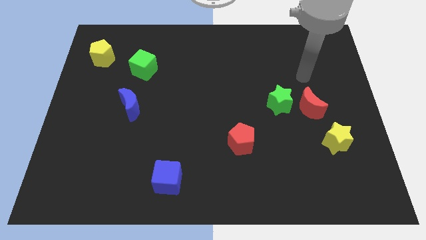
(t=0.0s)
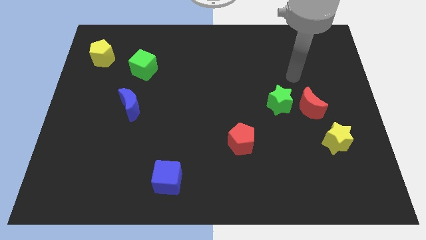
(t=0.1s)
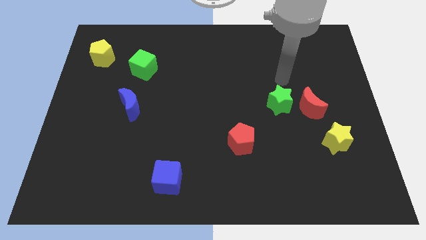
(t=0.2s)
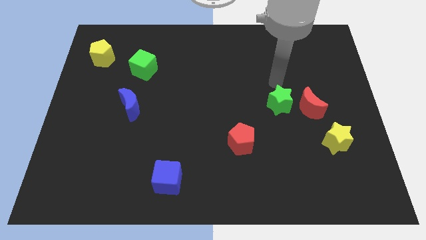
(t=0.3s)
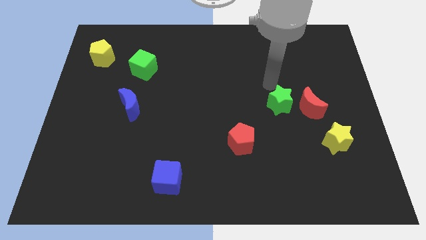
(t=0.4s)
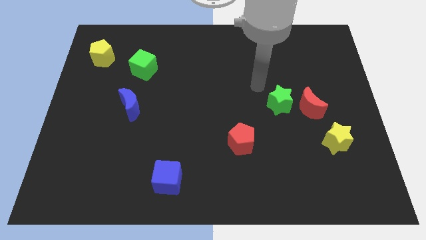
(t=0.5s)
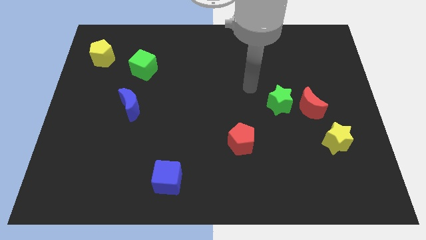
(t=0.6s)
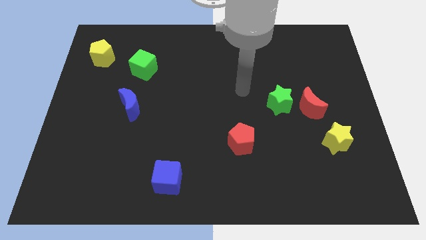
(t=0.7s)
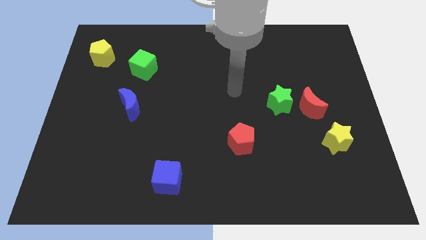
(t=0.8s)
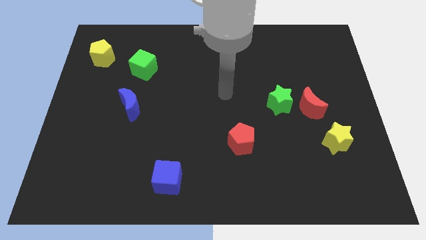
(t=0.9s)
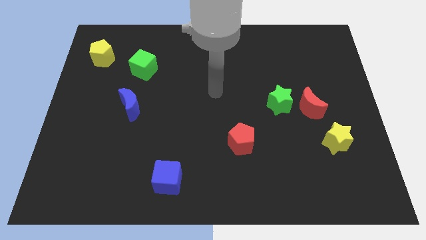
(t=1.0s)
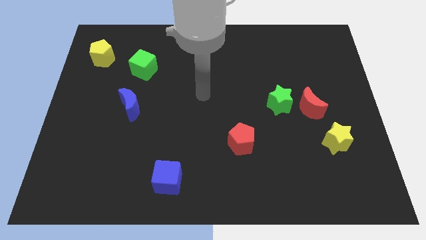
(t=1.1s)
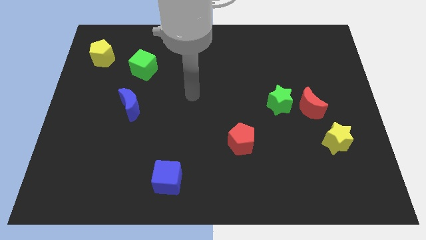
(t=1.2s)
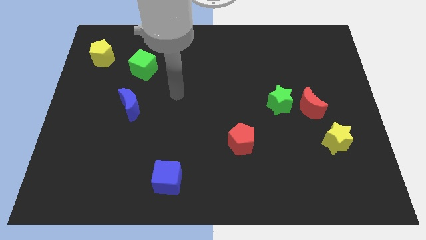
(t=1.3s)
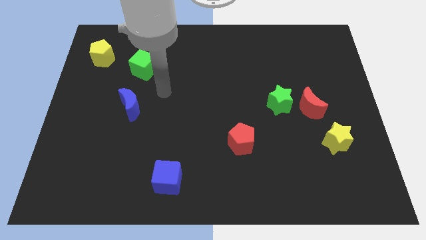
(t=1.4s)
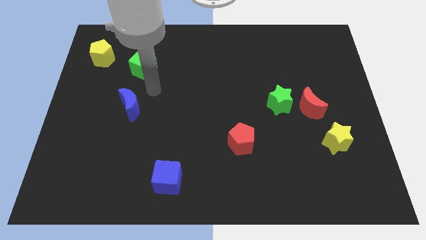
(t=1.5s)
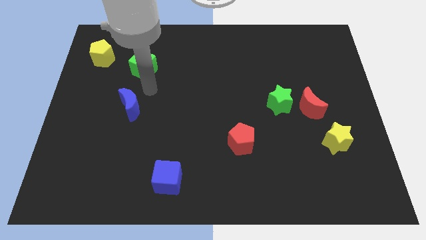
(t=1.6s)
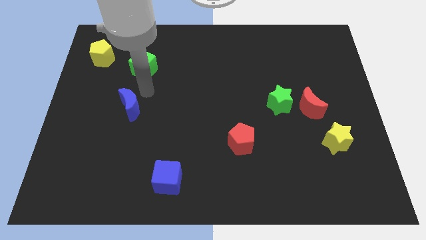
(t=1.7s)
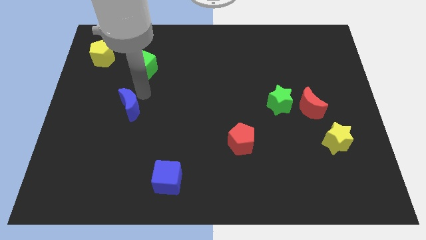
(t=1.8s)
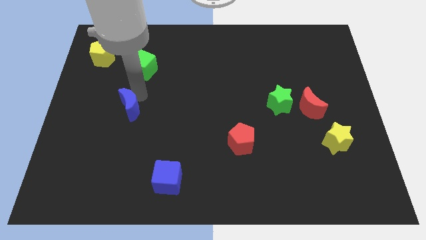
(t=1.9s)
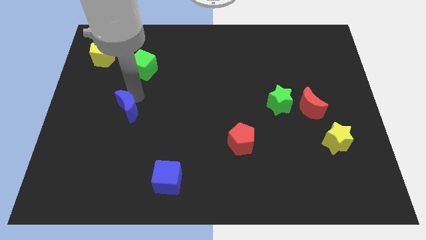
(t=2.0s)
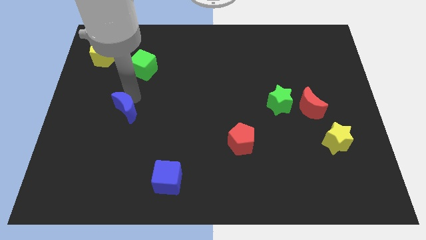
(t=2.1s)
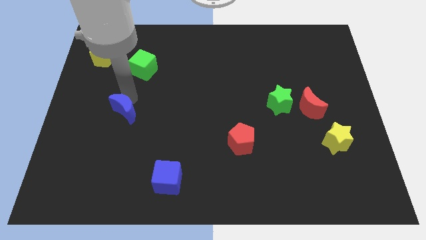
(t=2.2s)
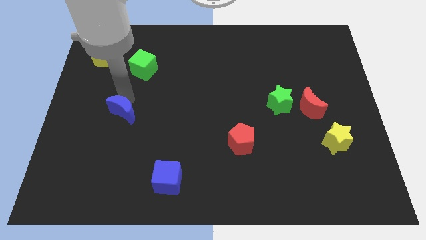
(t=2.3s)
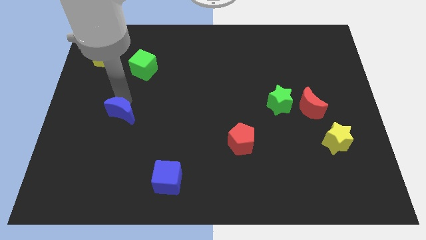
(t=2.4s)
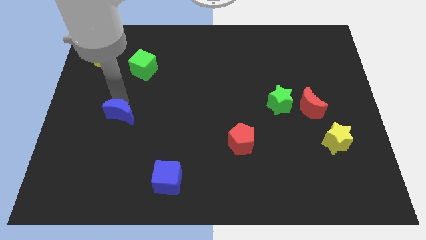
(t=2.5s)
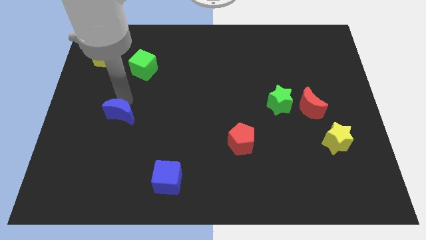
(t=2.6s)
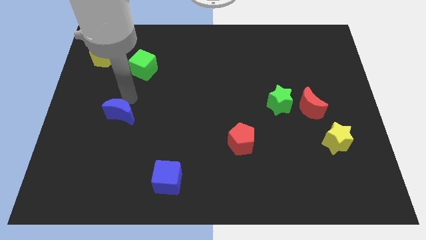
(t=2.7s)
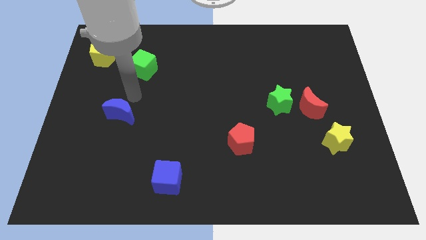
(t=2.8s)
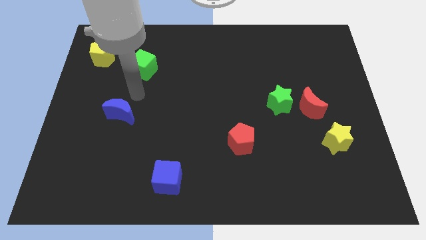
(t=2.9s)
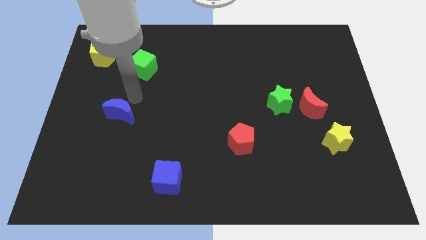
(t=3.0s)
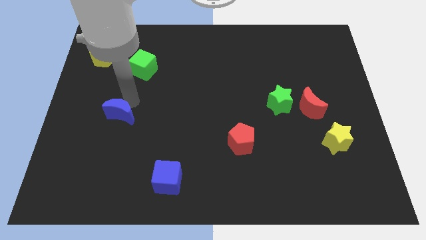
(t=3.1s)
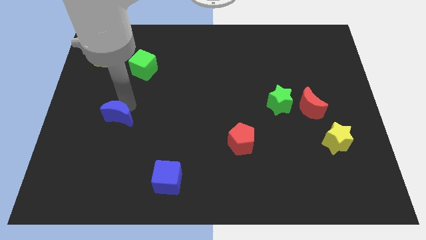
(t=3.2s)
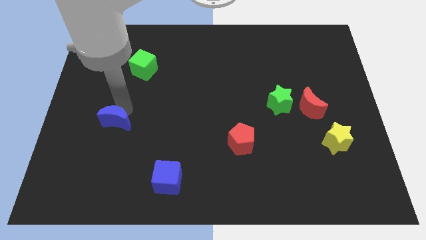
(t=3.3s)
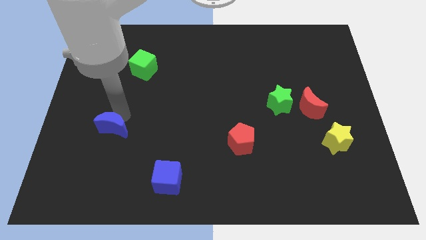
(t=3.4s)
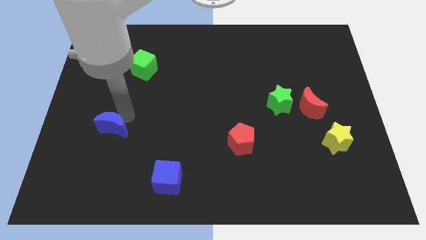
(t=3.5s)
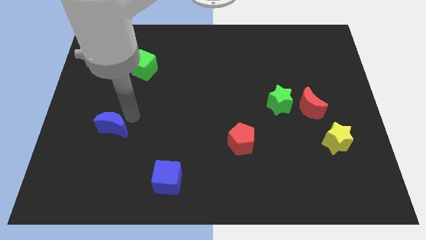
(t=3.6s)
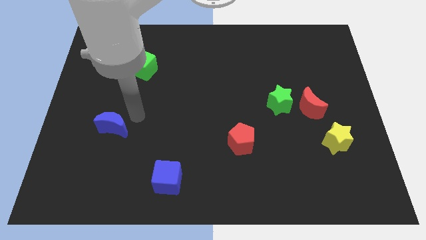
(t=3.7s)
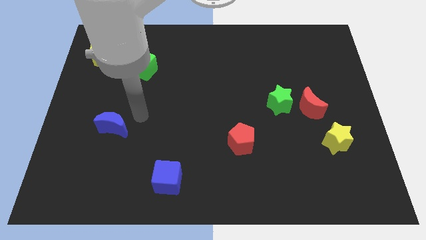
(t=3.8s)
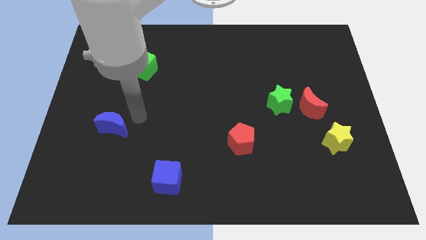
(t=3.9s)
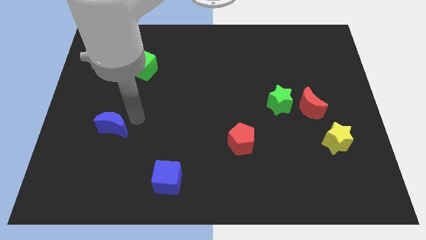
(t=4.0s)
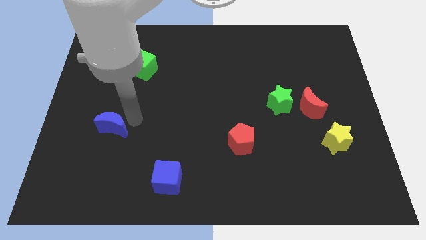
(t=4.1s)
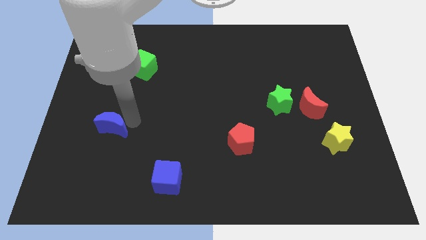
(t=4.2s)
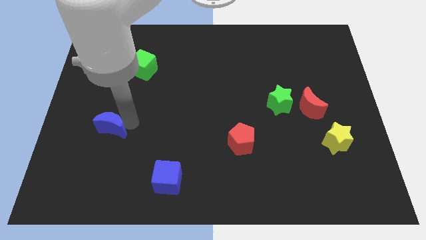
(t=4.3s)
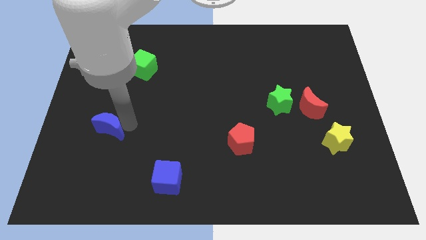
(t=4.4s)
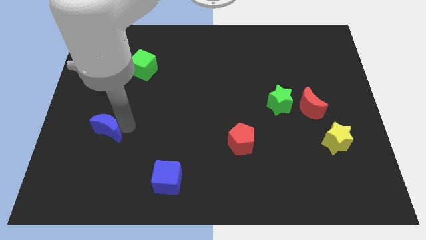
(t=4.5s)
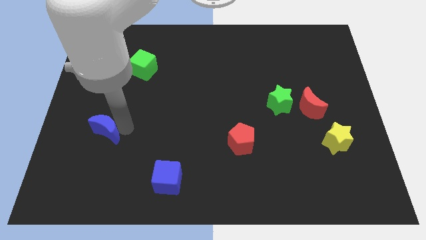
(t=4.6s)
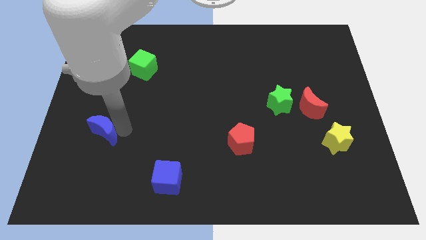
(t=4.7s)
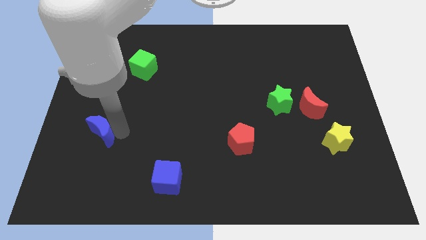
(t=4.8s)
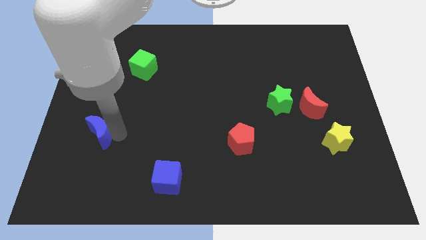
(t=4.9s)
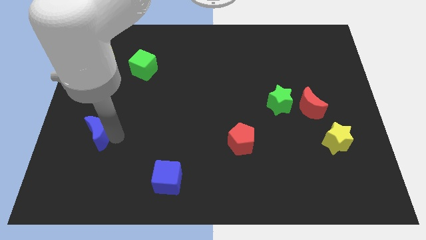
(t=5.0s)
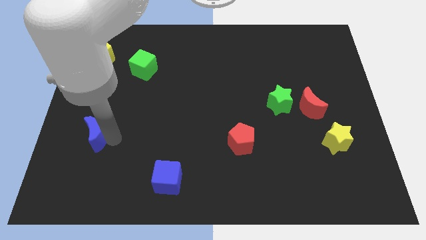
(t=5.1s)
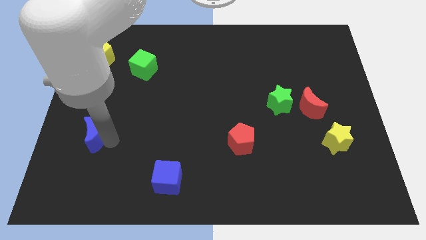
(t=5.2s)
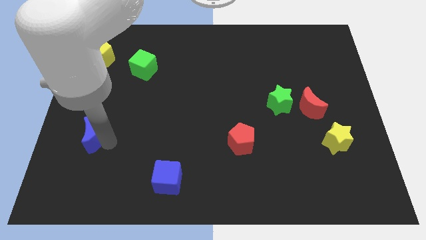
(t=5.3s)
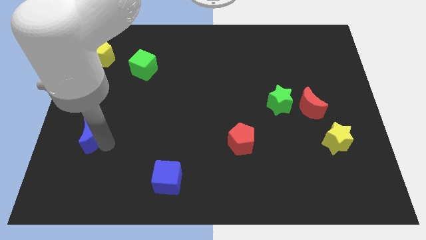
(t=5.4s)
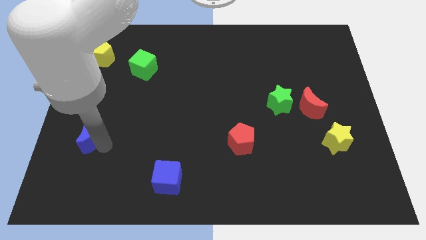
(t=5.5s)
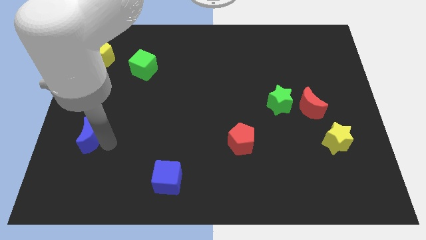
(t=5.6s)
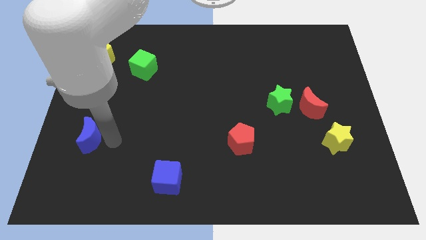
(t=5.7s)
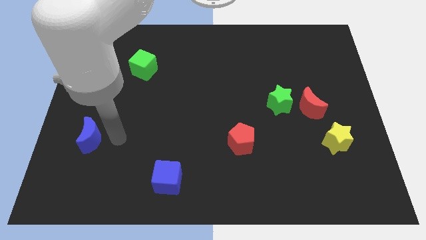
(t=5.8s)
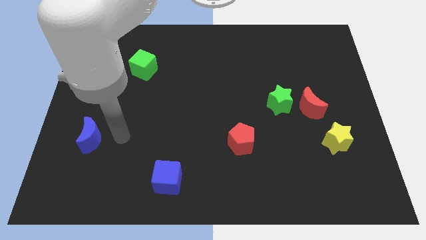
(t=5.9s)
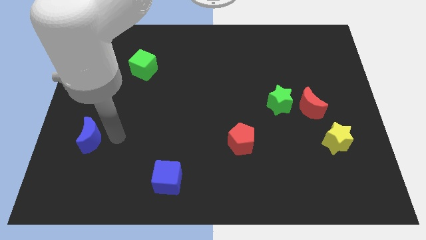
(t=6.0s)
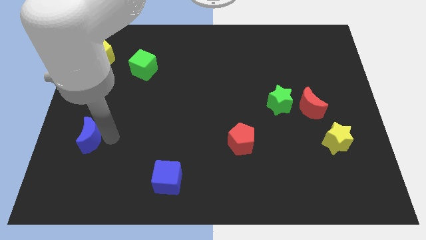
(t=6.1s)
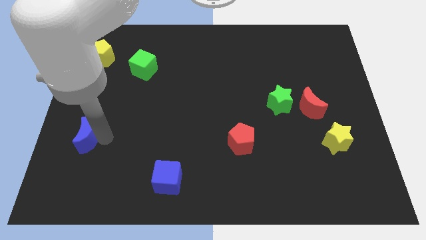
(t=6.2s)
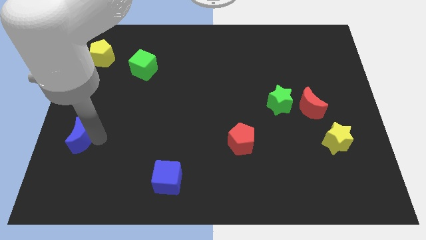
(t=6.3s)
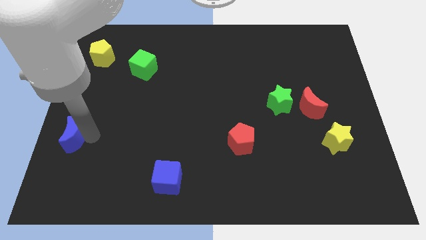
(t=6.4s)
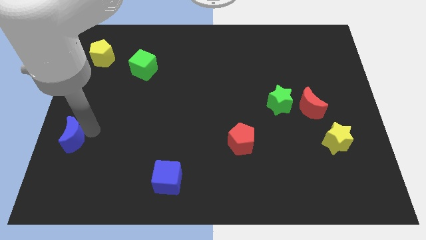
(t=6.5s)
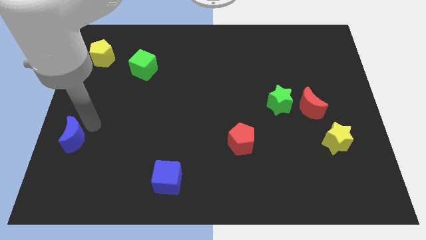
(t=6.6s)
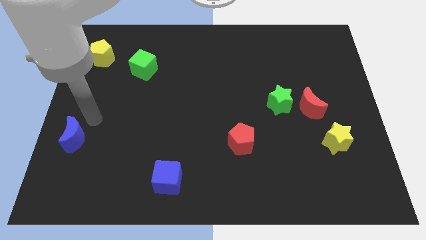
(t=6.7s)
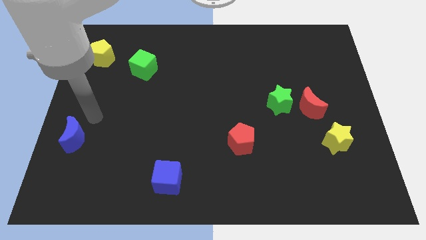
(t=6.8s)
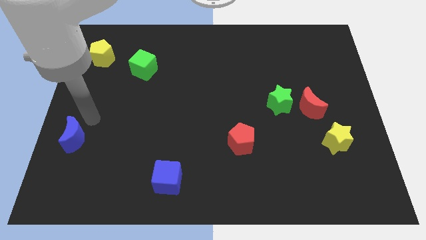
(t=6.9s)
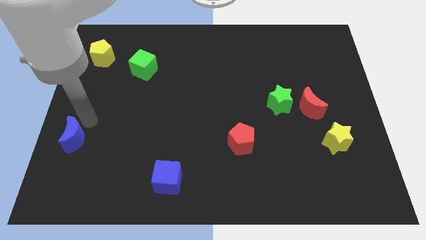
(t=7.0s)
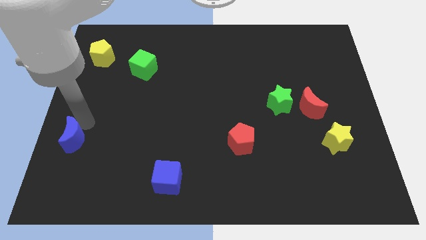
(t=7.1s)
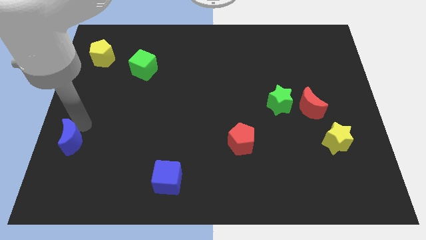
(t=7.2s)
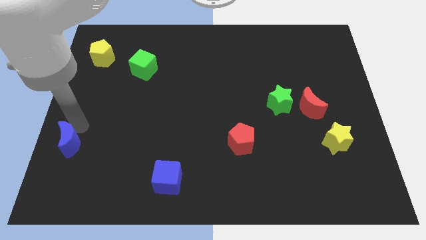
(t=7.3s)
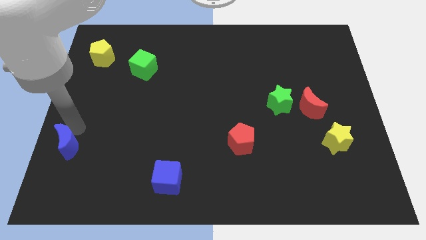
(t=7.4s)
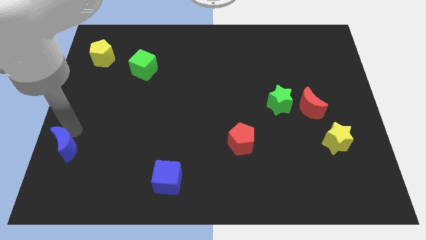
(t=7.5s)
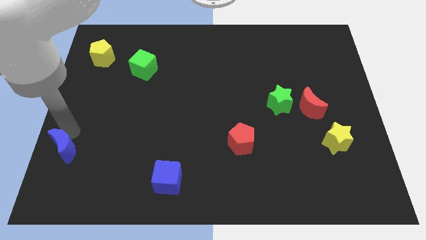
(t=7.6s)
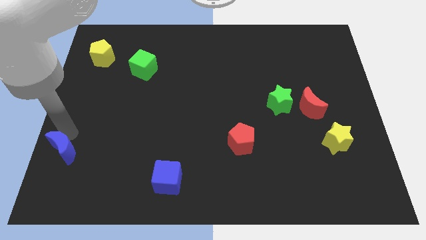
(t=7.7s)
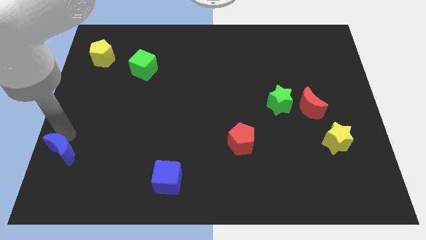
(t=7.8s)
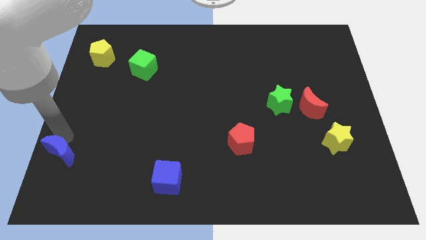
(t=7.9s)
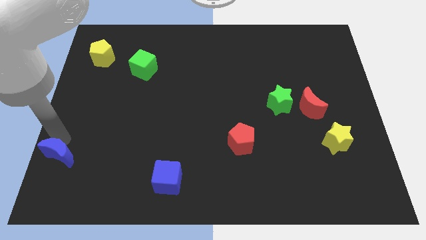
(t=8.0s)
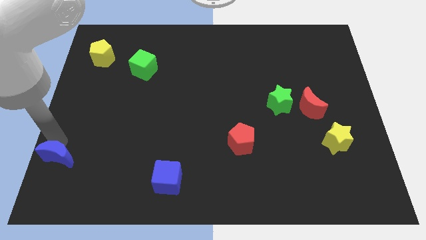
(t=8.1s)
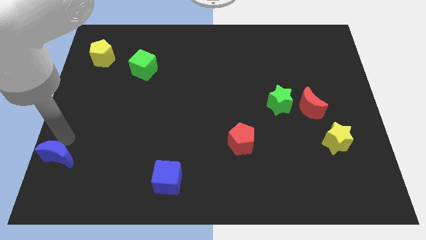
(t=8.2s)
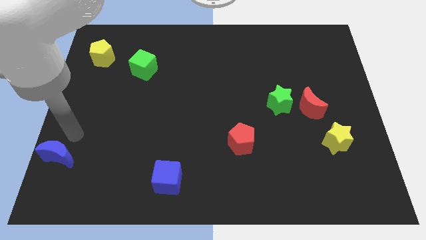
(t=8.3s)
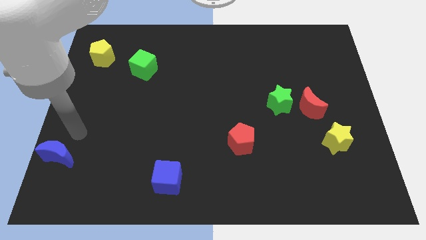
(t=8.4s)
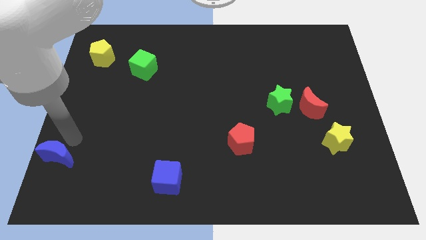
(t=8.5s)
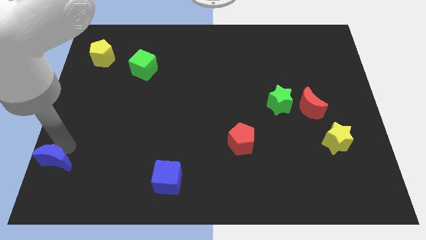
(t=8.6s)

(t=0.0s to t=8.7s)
push the blue moon to the bottom left of the board
